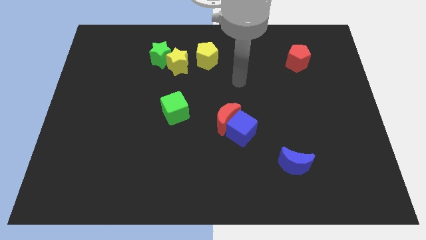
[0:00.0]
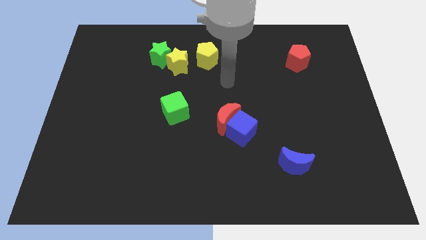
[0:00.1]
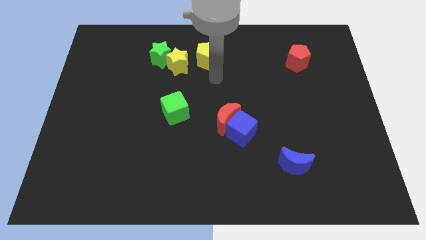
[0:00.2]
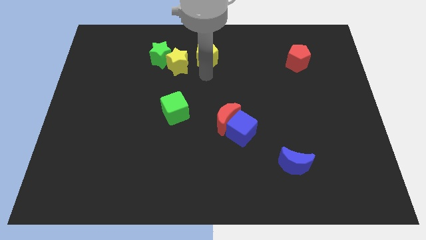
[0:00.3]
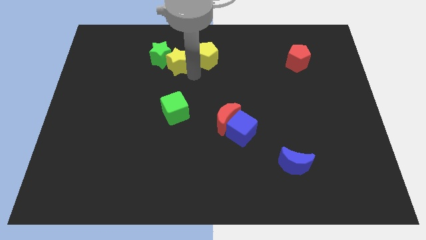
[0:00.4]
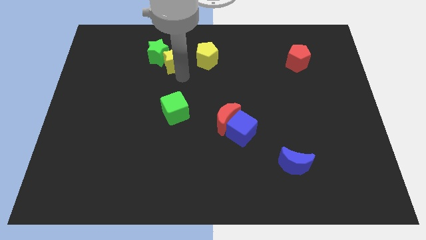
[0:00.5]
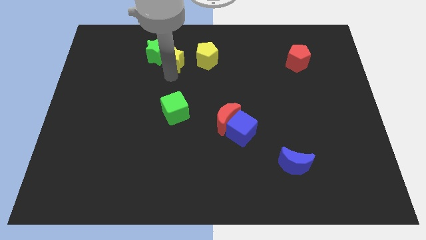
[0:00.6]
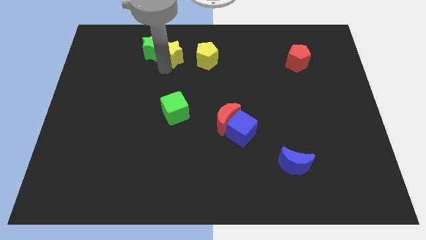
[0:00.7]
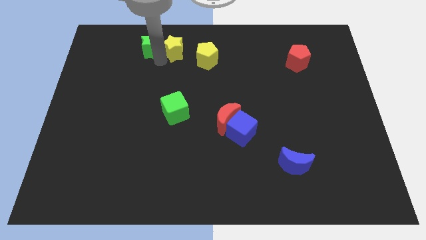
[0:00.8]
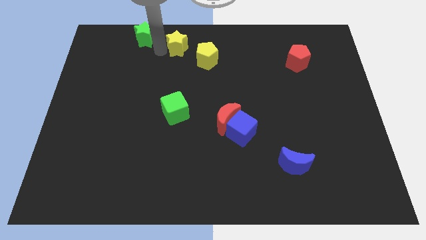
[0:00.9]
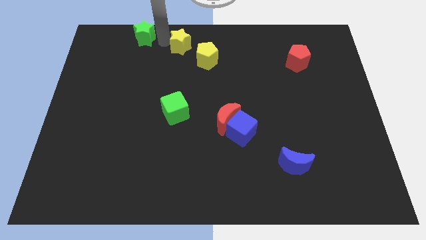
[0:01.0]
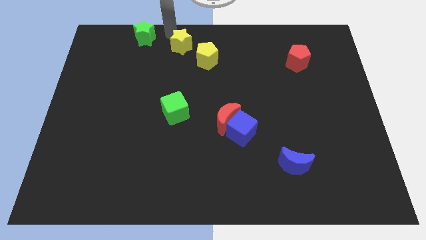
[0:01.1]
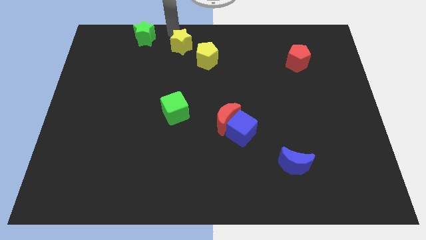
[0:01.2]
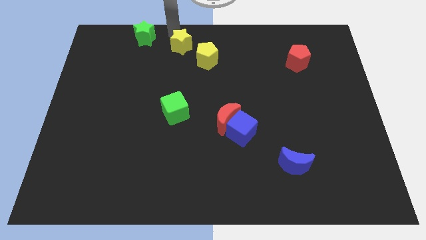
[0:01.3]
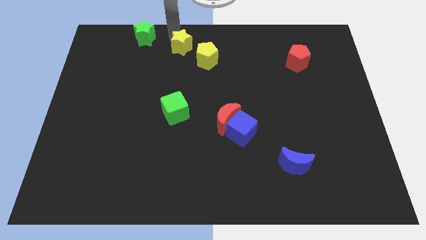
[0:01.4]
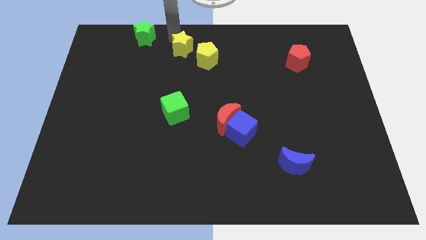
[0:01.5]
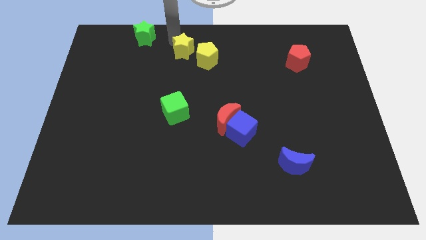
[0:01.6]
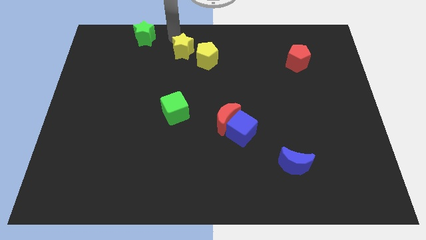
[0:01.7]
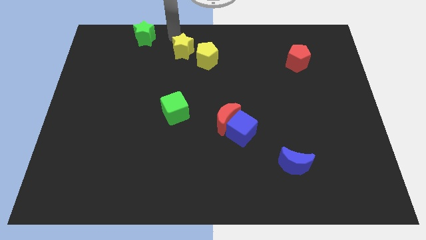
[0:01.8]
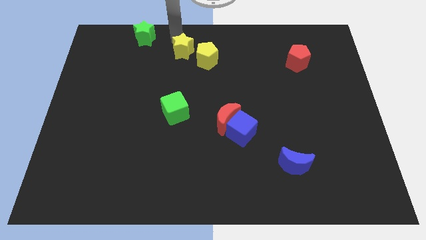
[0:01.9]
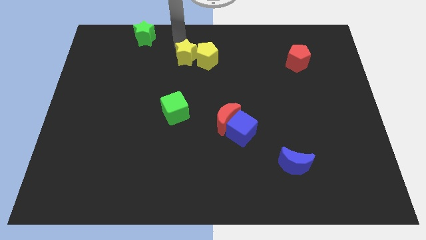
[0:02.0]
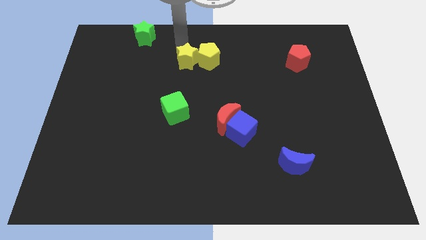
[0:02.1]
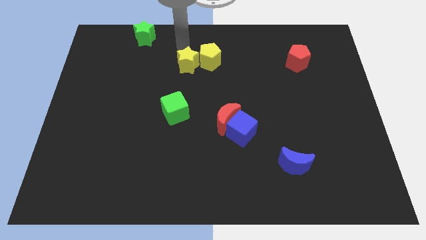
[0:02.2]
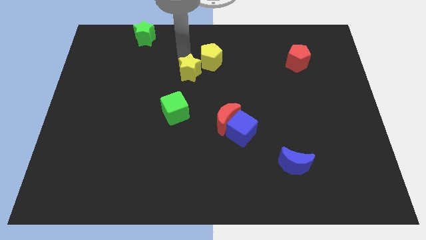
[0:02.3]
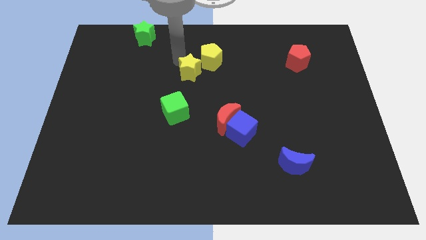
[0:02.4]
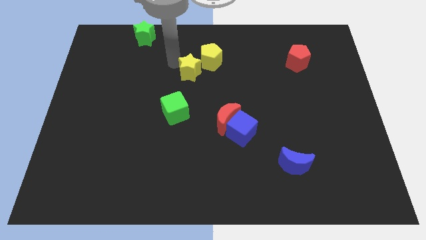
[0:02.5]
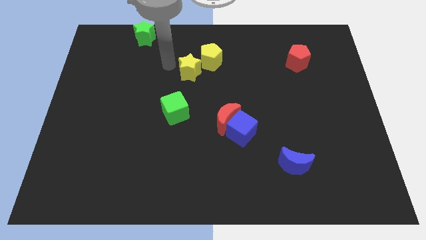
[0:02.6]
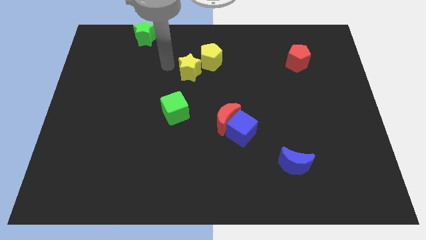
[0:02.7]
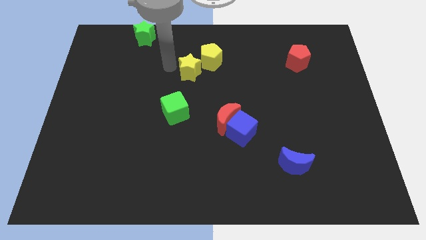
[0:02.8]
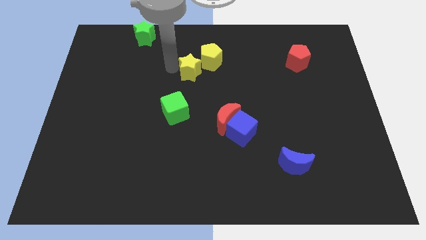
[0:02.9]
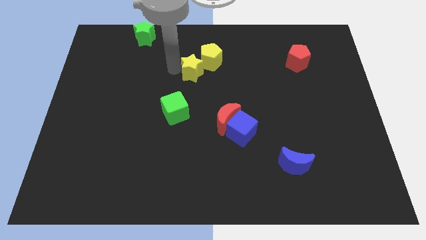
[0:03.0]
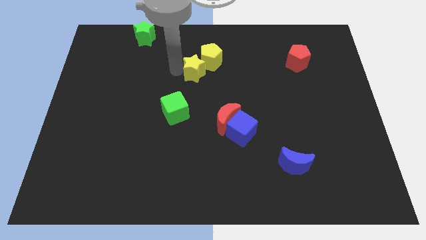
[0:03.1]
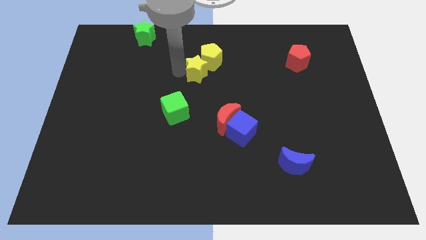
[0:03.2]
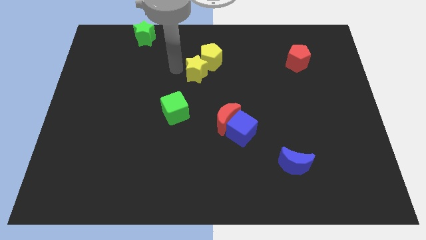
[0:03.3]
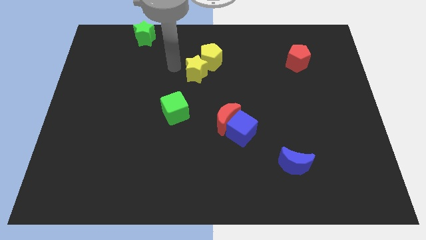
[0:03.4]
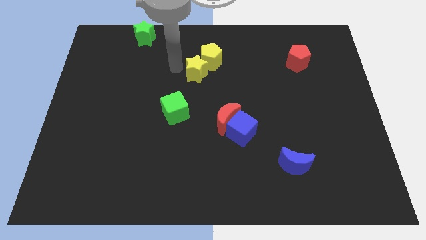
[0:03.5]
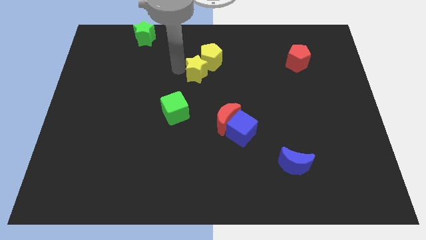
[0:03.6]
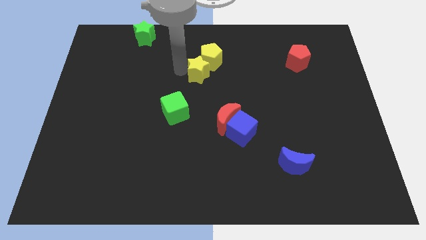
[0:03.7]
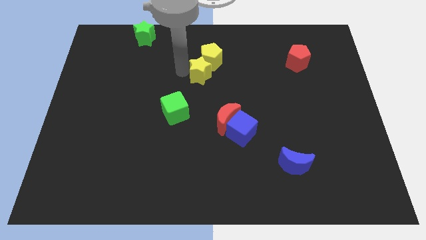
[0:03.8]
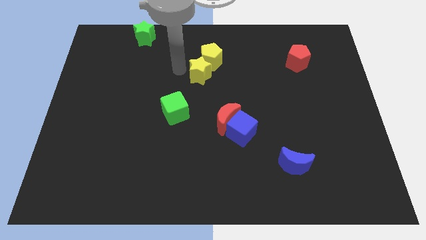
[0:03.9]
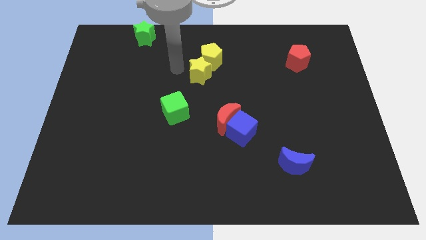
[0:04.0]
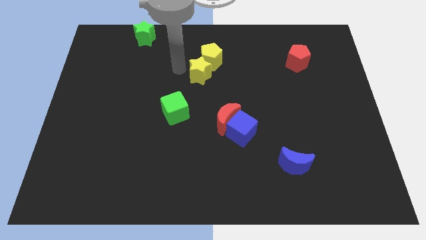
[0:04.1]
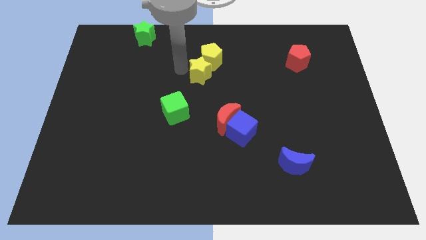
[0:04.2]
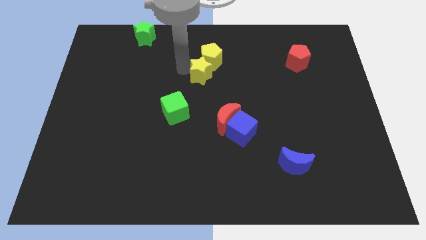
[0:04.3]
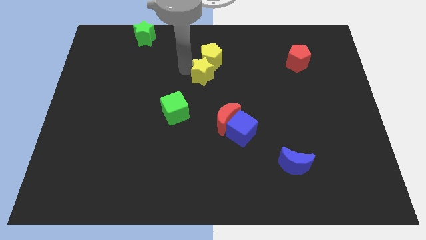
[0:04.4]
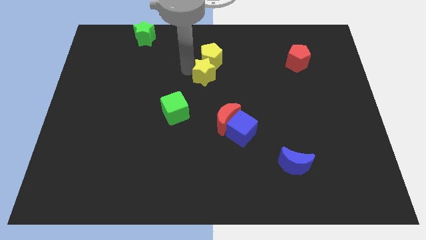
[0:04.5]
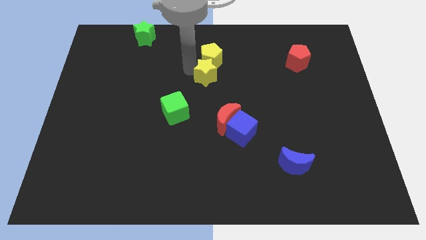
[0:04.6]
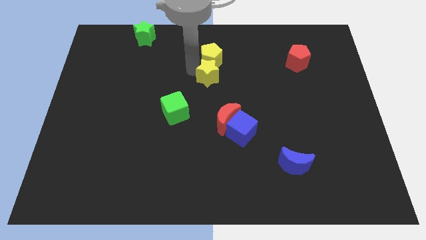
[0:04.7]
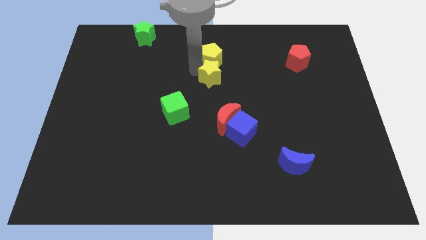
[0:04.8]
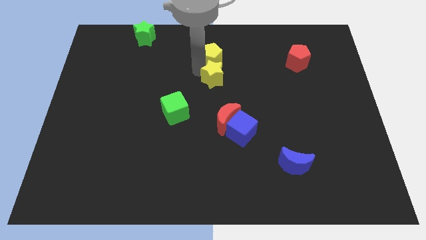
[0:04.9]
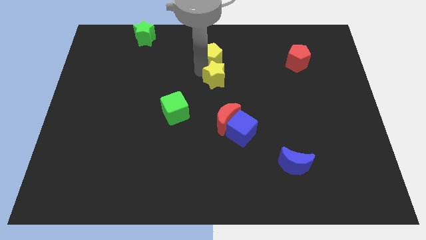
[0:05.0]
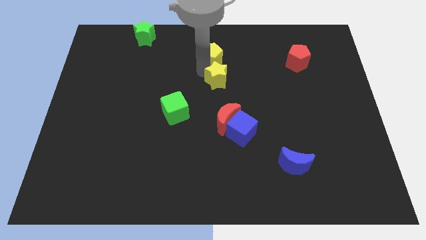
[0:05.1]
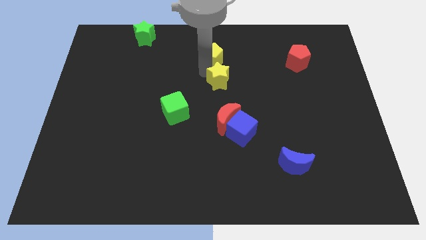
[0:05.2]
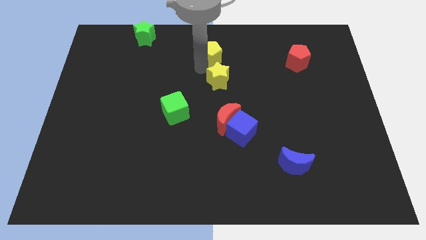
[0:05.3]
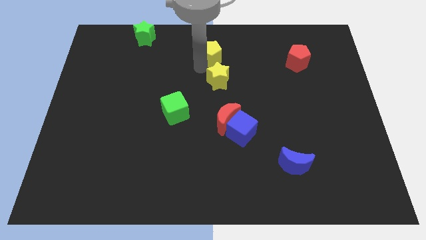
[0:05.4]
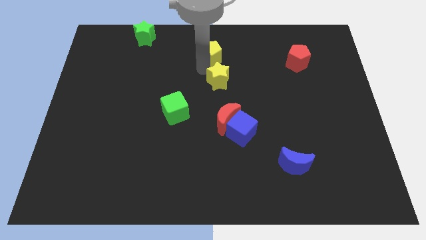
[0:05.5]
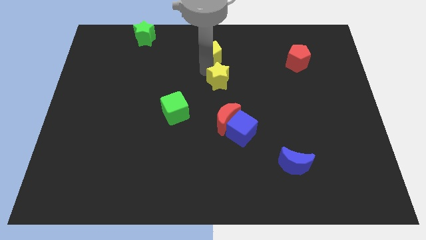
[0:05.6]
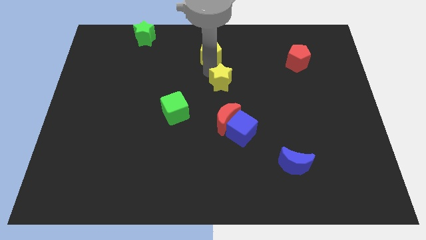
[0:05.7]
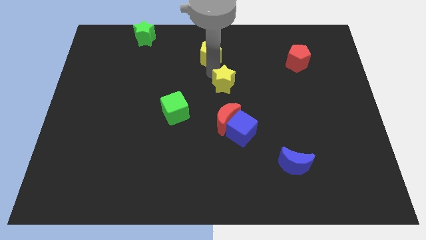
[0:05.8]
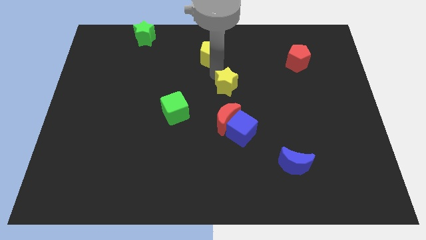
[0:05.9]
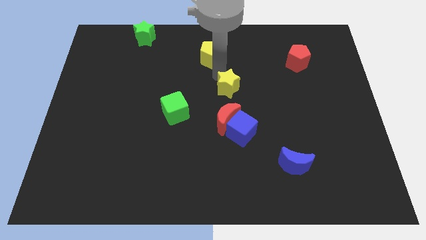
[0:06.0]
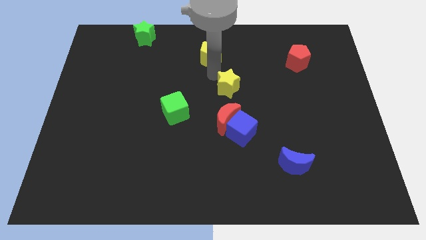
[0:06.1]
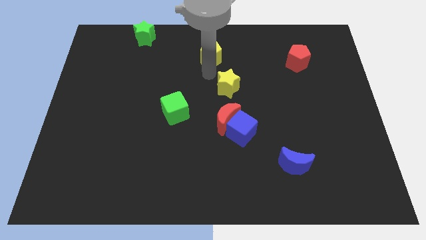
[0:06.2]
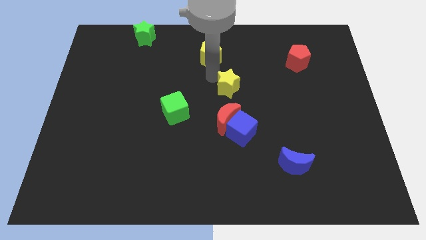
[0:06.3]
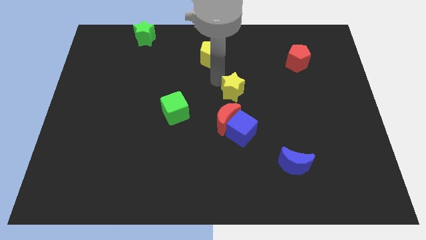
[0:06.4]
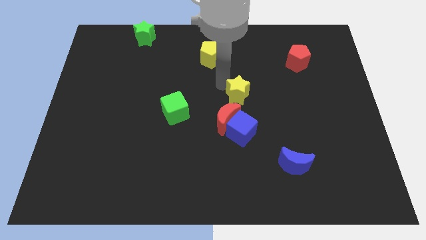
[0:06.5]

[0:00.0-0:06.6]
slide the yellow star diagonally up and to the right of the red moon

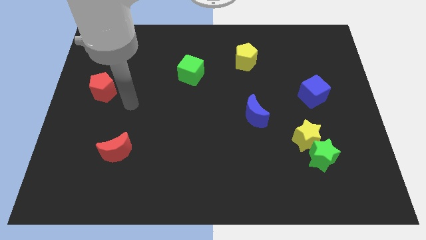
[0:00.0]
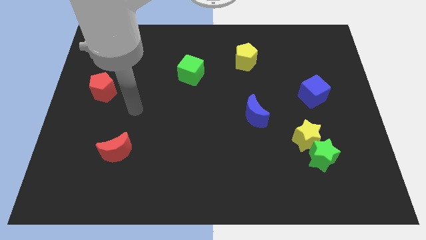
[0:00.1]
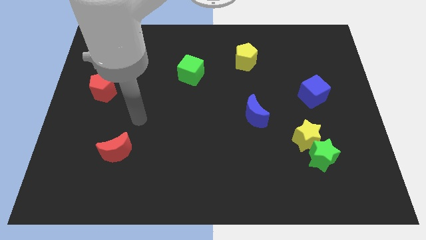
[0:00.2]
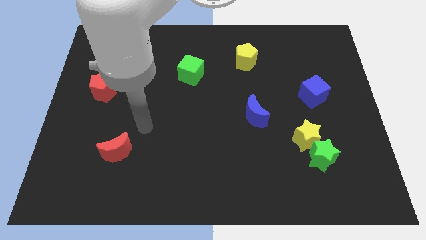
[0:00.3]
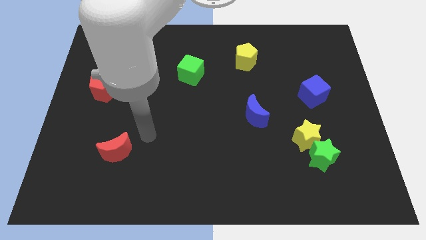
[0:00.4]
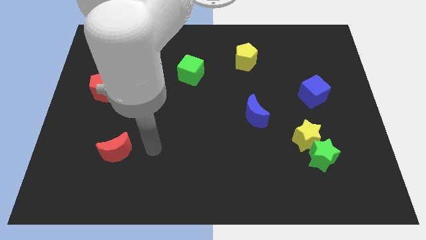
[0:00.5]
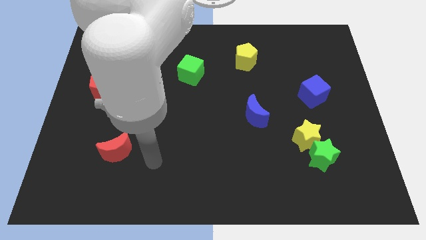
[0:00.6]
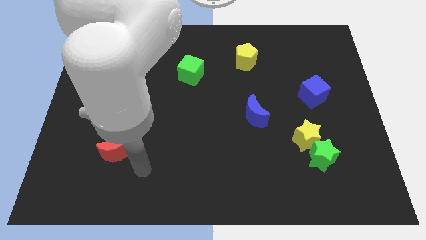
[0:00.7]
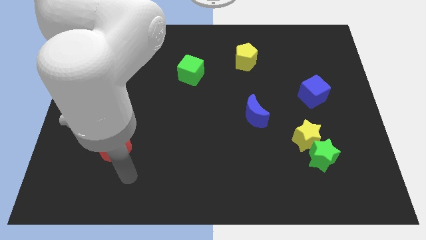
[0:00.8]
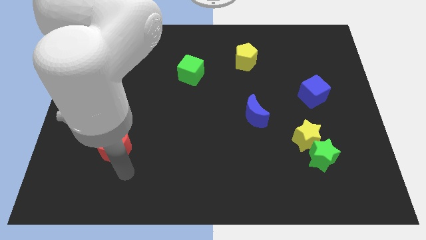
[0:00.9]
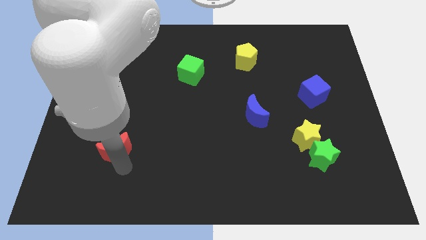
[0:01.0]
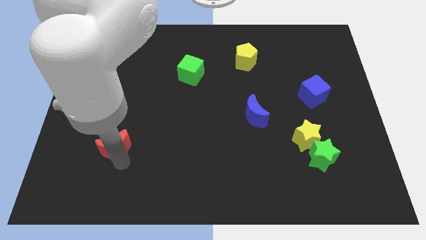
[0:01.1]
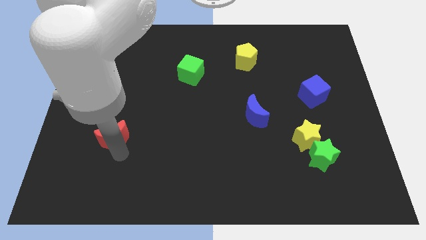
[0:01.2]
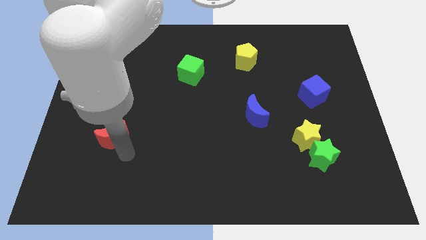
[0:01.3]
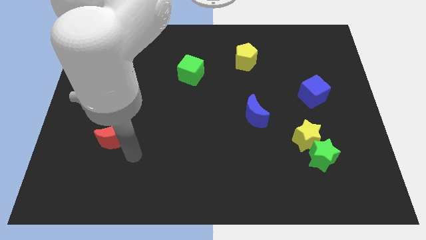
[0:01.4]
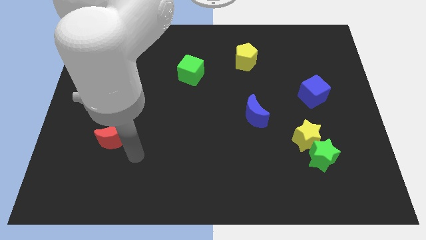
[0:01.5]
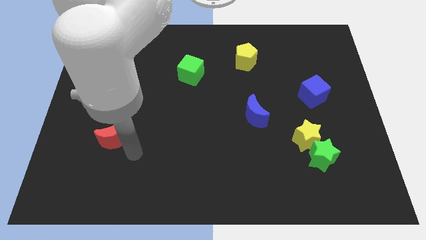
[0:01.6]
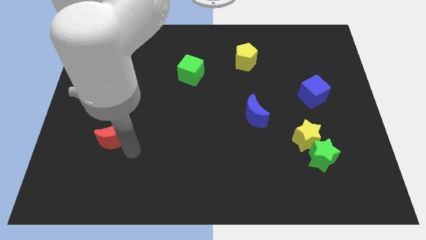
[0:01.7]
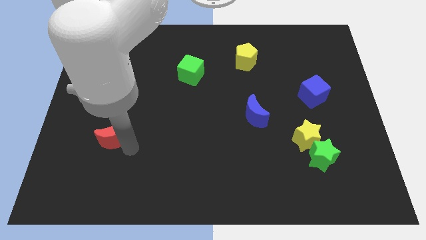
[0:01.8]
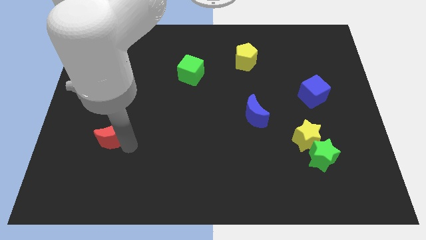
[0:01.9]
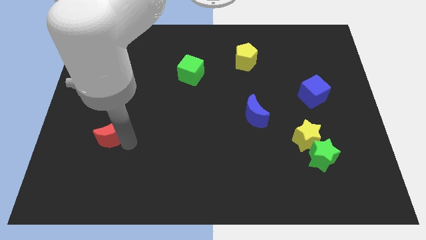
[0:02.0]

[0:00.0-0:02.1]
slide the red moon below the red pentagon
